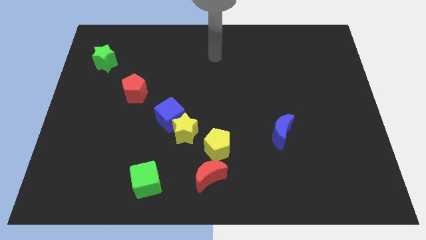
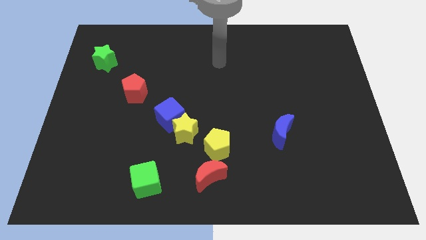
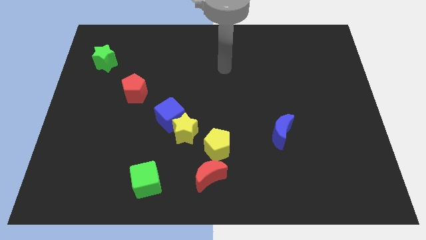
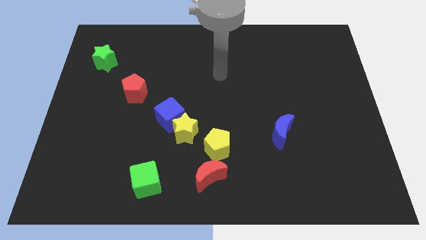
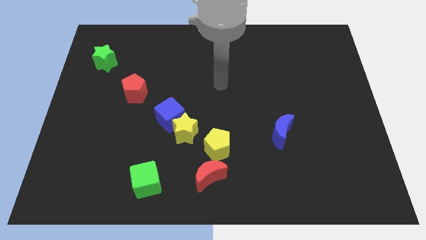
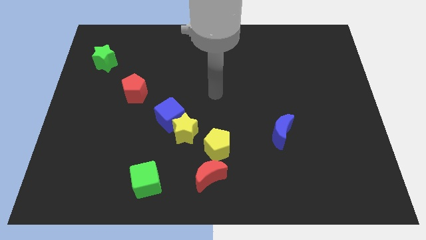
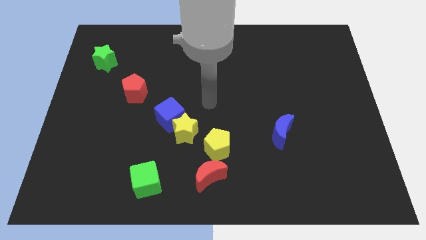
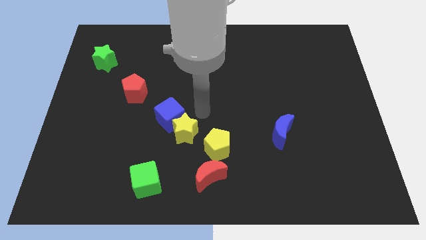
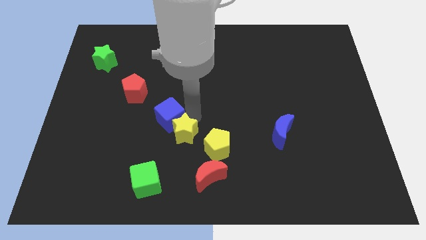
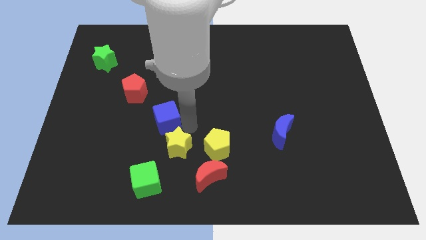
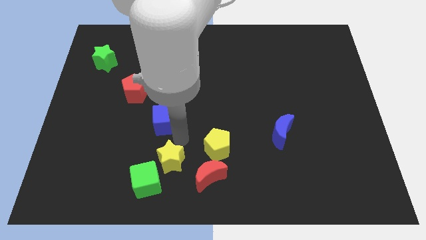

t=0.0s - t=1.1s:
separate the blue cube from the yellow star

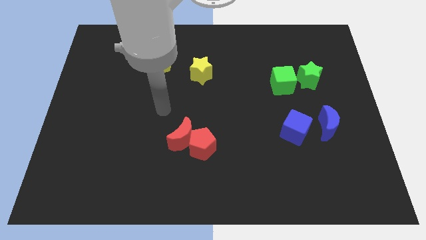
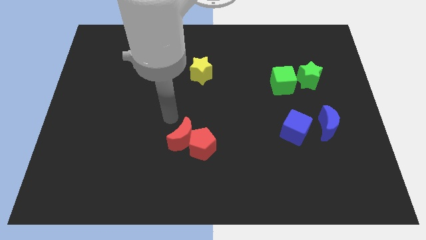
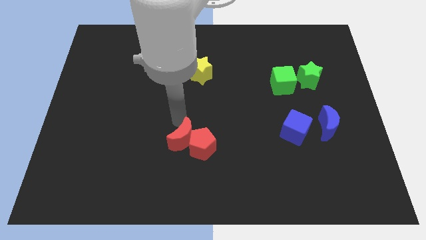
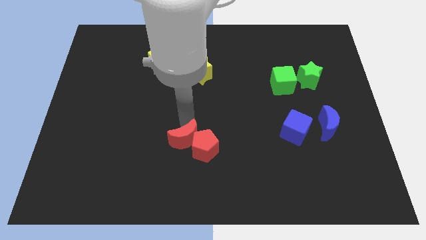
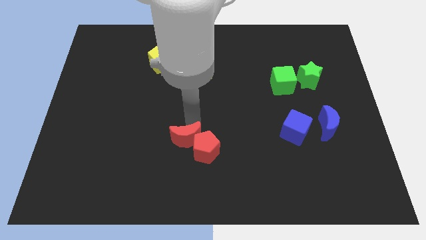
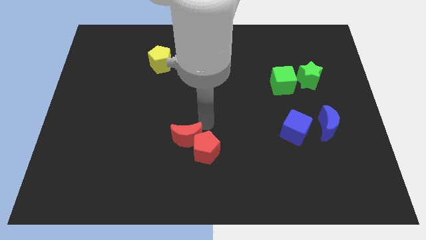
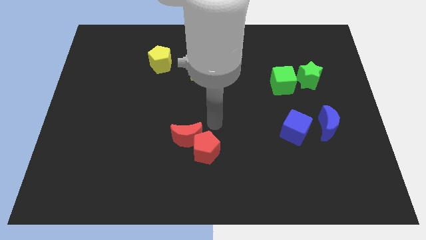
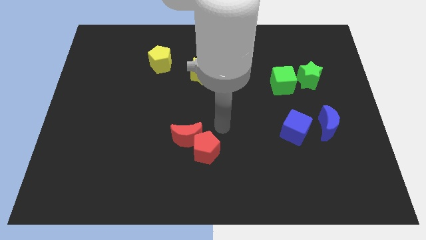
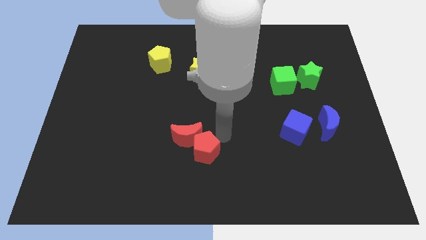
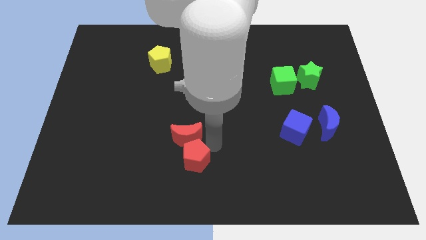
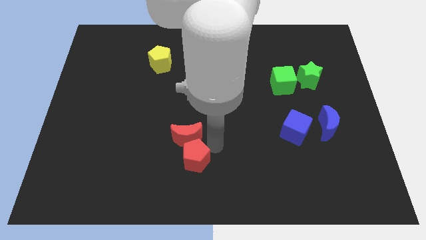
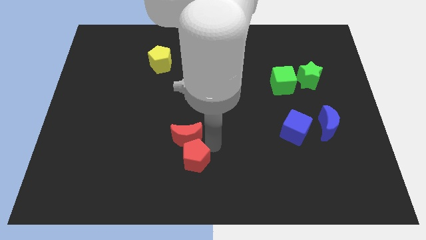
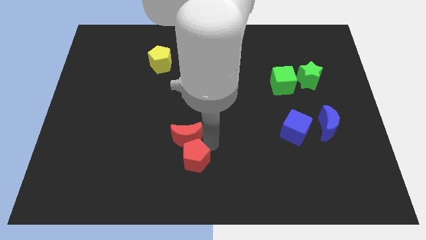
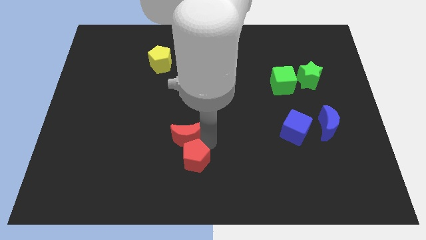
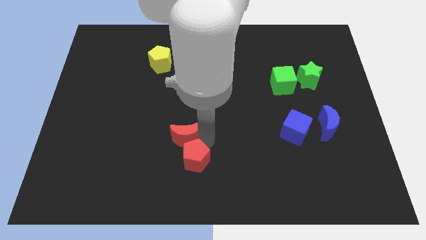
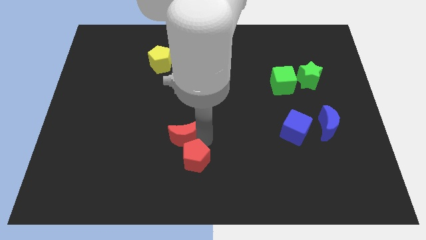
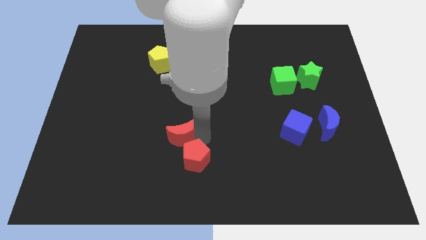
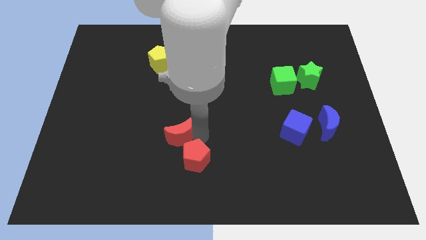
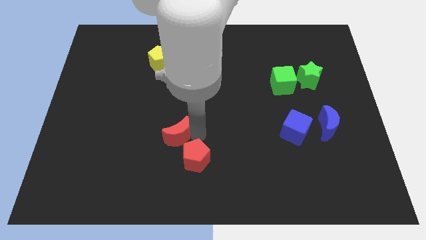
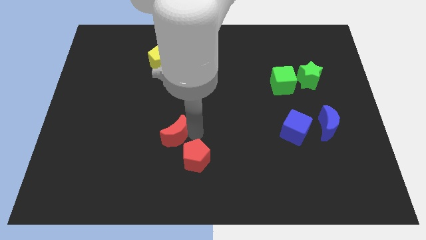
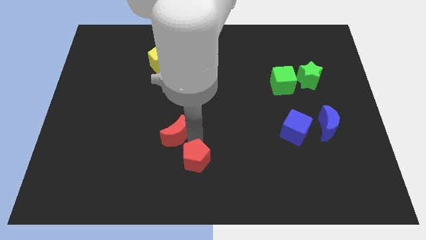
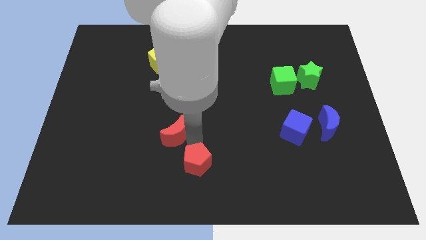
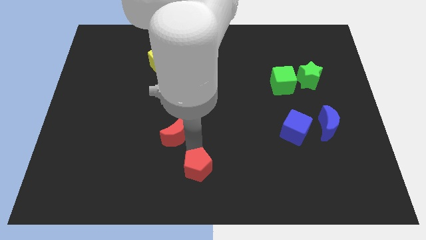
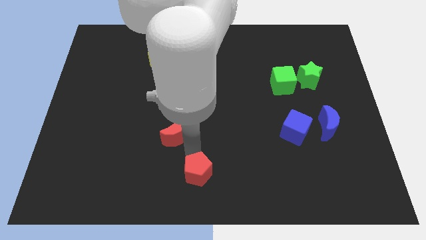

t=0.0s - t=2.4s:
move the red moon away from the red pentagon

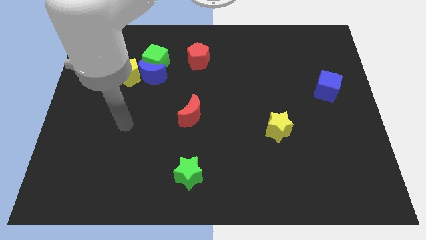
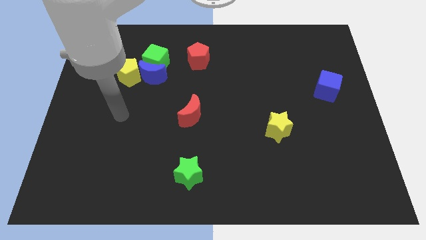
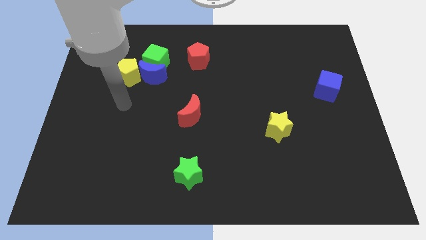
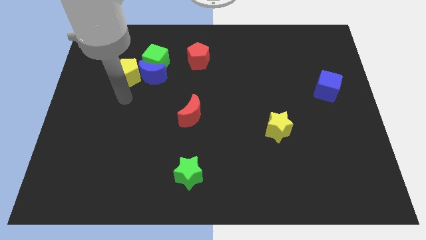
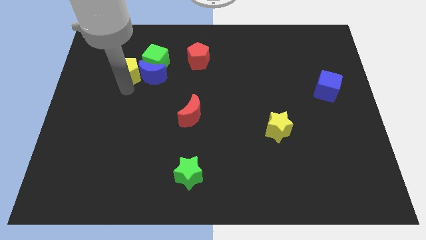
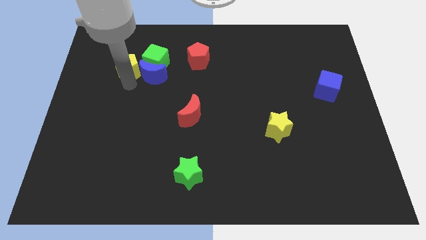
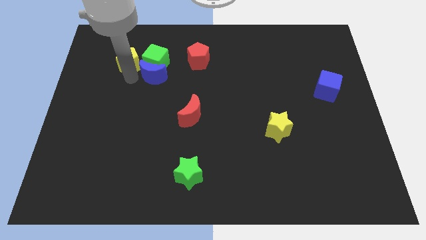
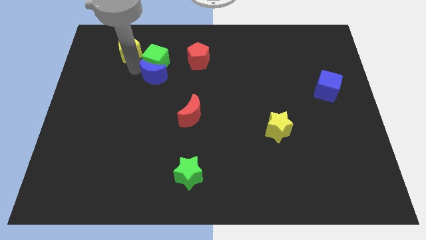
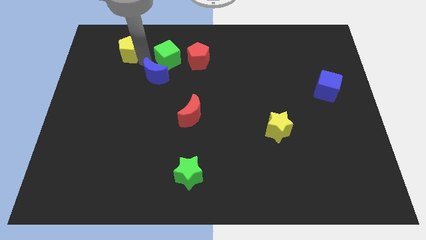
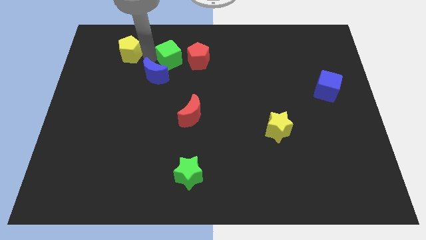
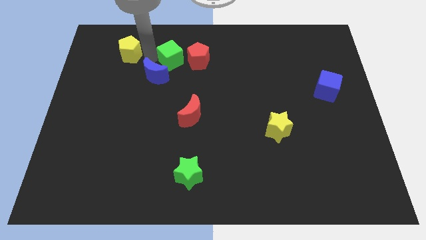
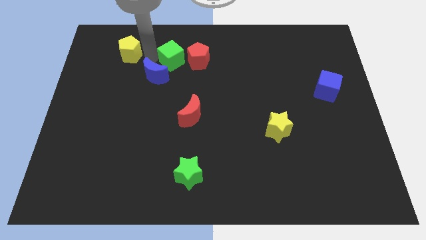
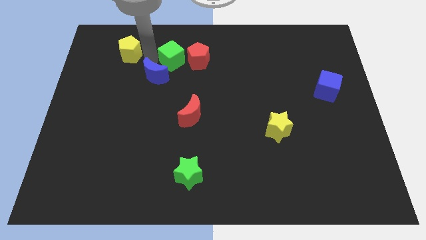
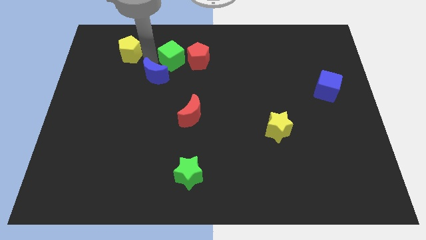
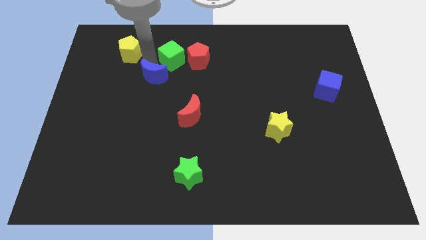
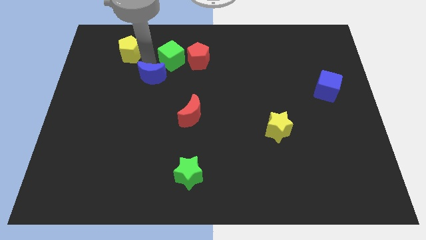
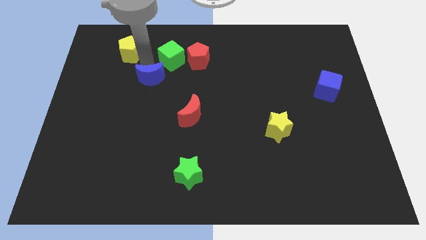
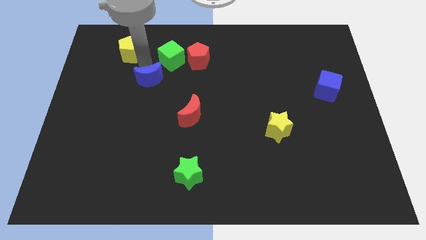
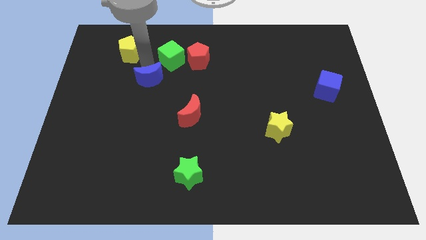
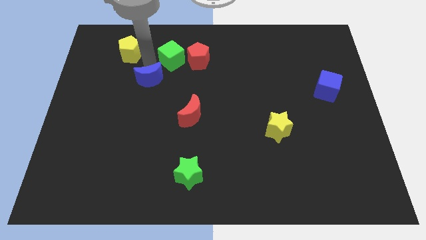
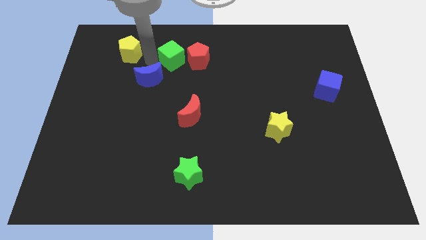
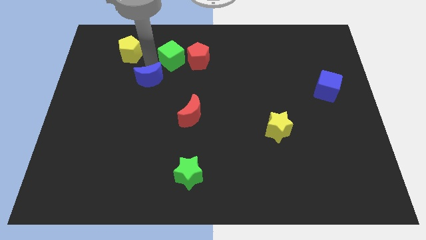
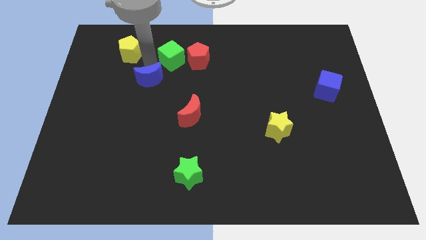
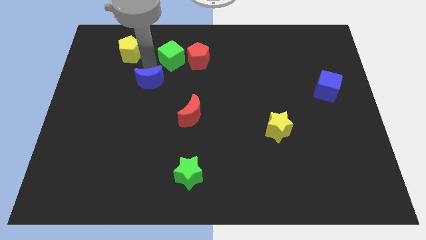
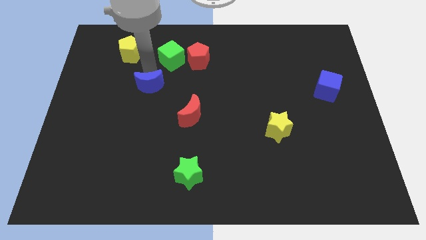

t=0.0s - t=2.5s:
separate the blue moon from the green cube and yellow pentagon

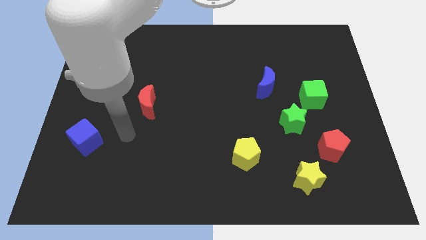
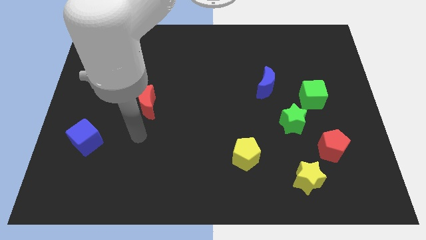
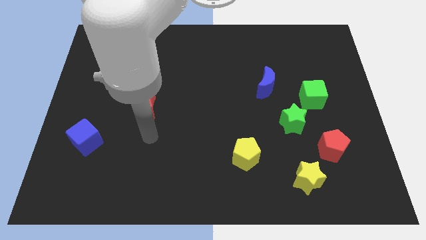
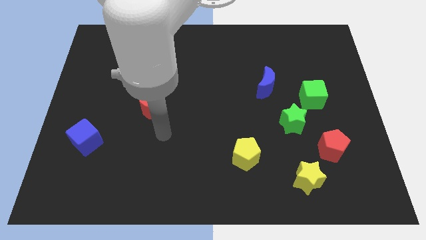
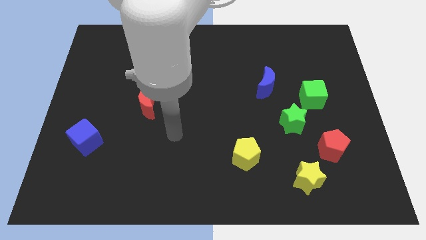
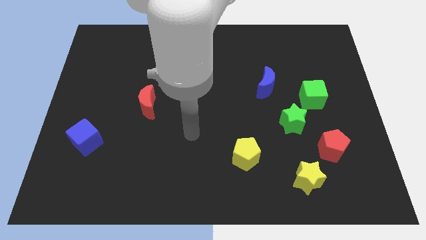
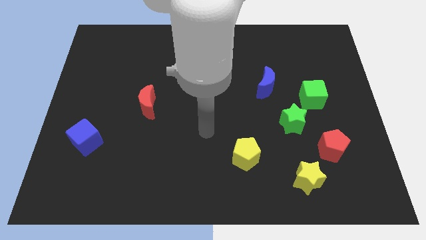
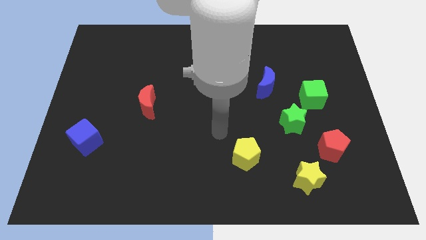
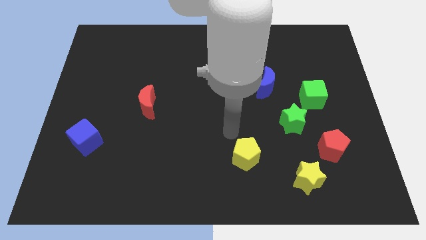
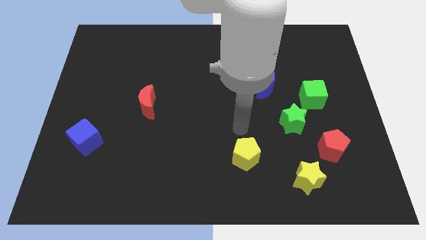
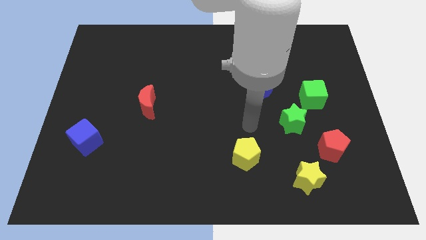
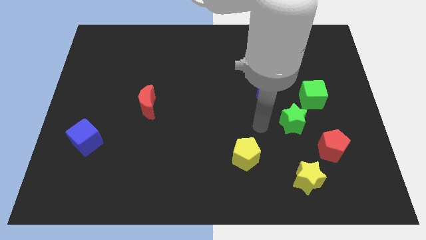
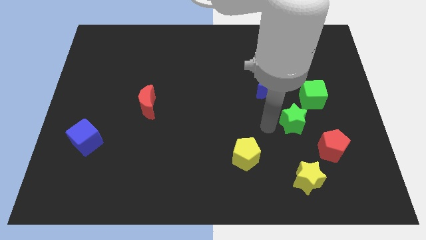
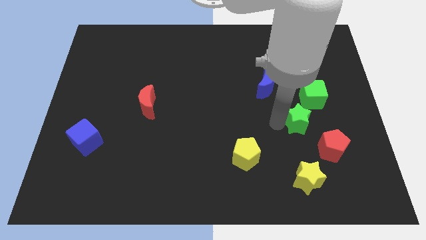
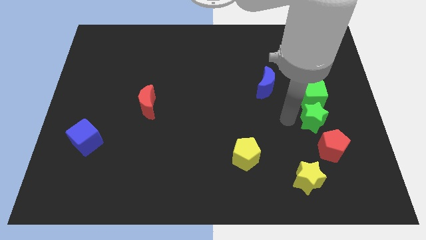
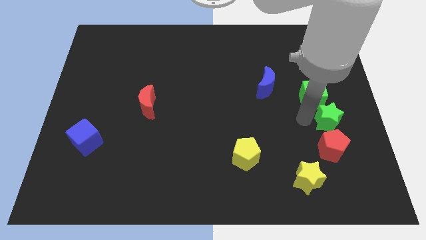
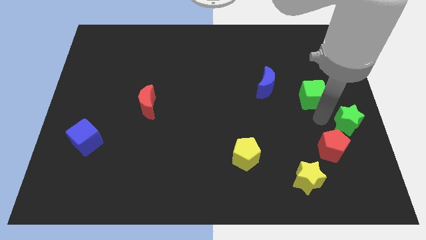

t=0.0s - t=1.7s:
pull the green cube apart from the green star

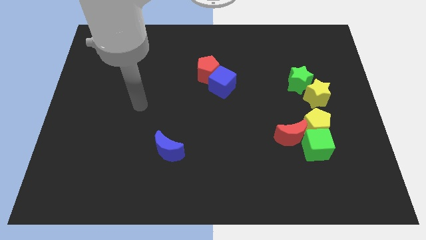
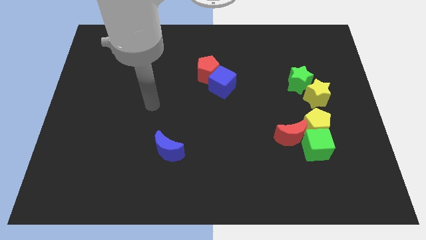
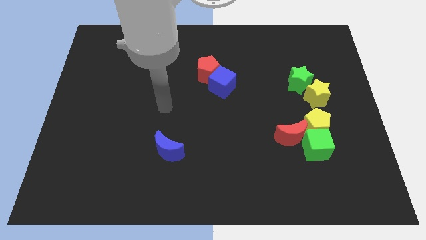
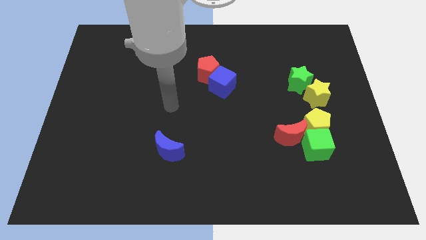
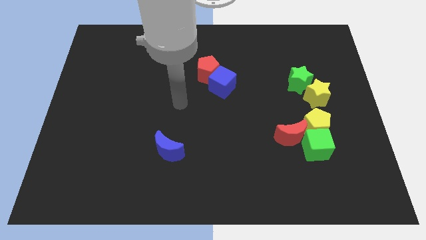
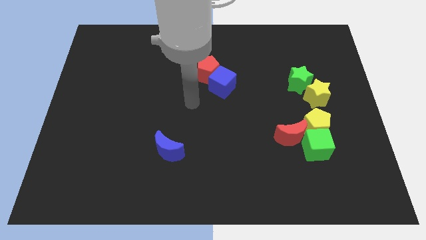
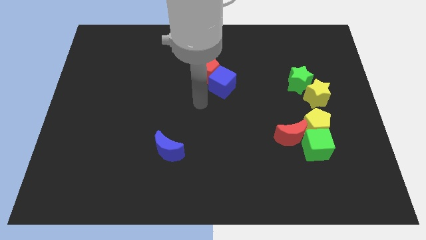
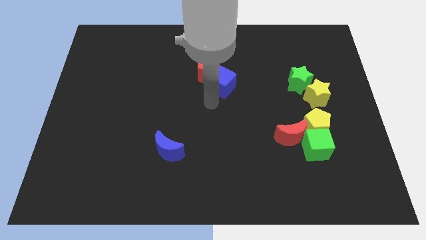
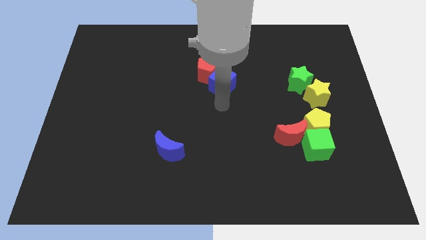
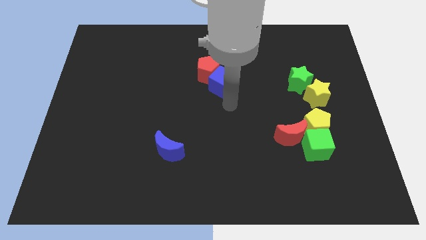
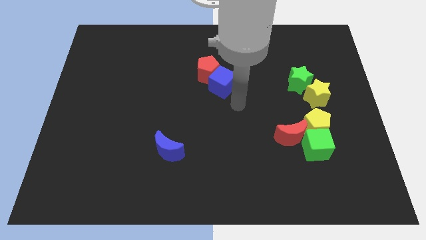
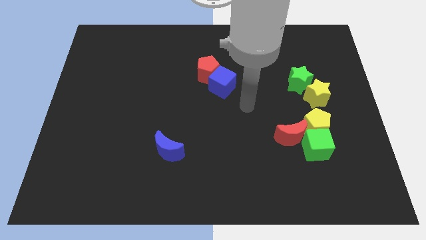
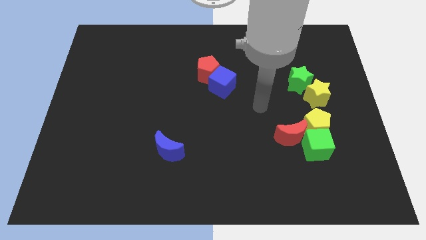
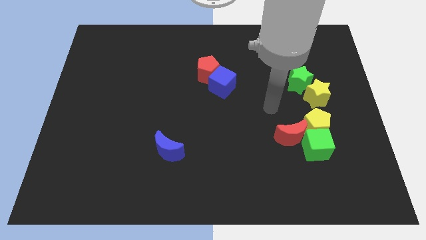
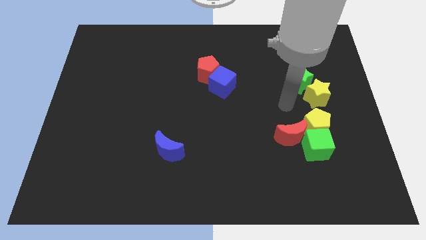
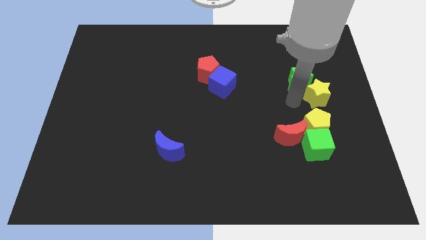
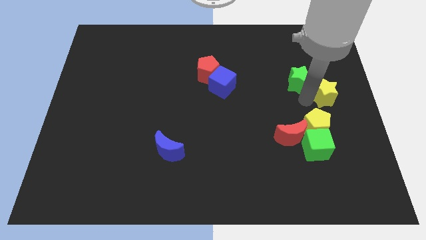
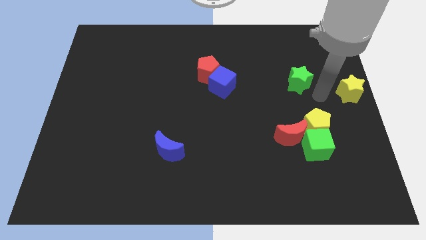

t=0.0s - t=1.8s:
separate the green star from the yellow star
